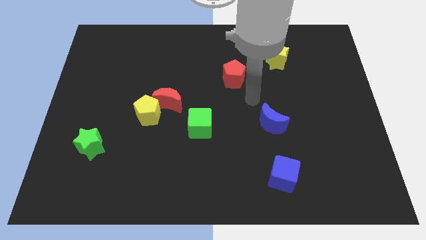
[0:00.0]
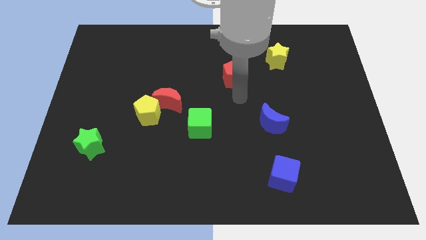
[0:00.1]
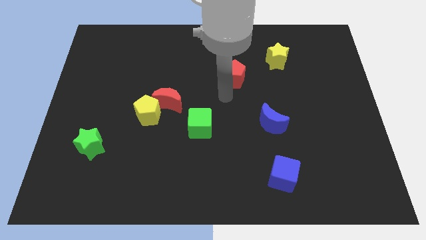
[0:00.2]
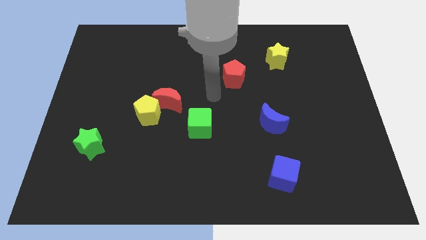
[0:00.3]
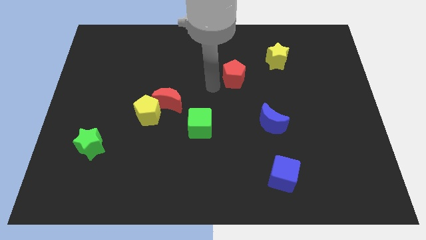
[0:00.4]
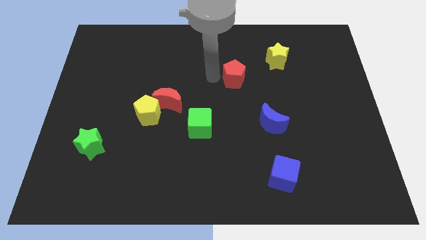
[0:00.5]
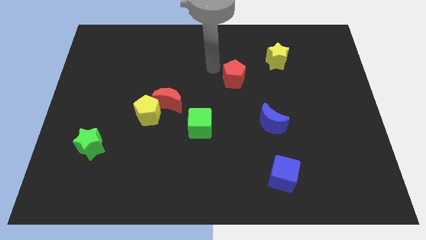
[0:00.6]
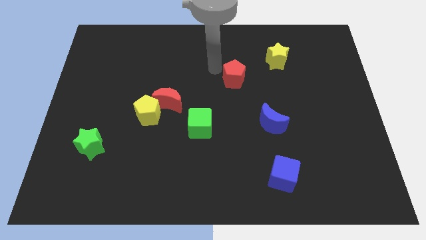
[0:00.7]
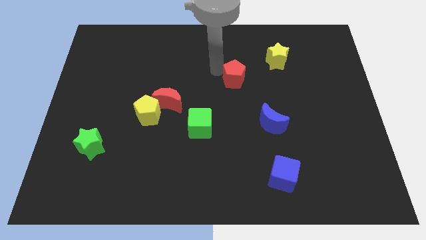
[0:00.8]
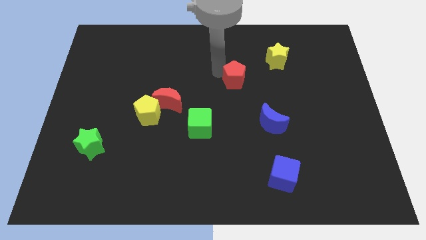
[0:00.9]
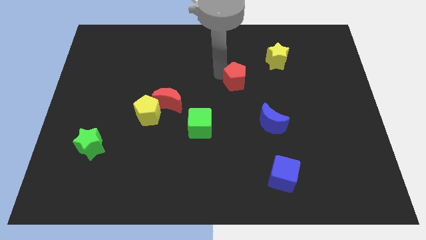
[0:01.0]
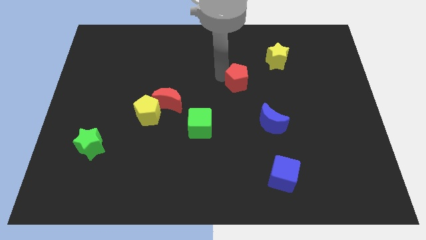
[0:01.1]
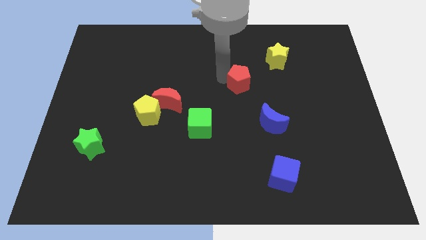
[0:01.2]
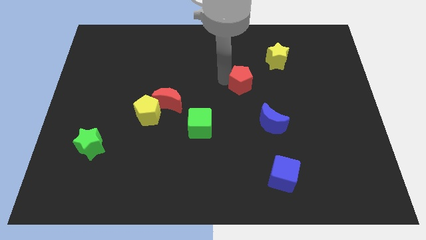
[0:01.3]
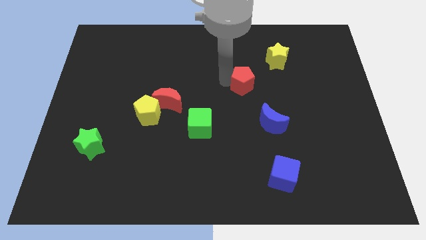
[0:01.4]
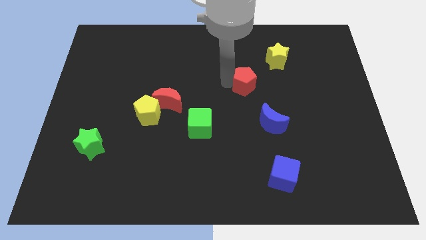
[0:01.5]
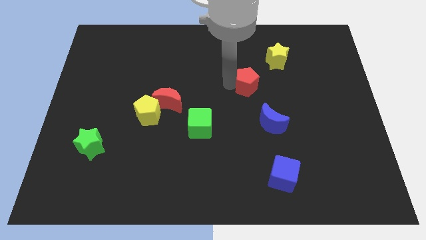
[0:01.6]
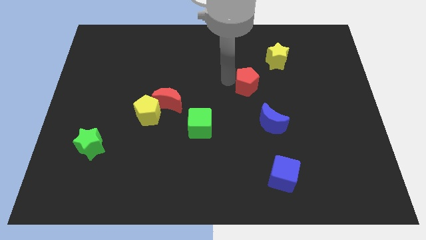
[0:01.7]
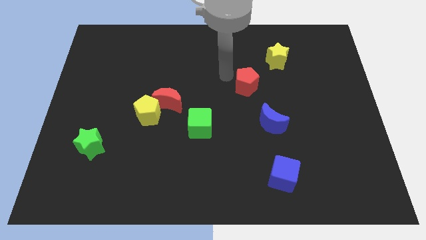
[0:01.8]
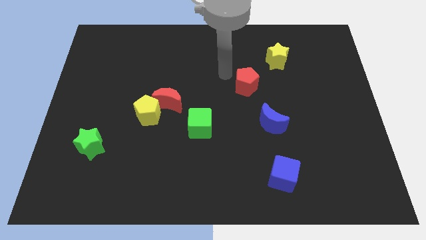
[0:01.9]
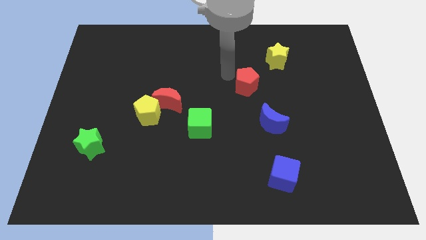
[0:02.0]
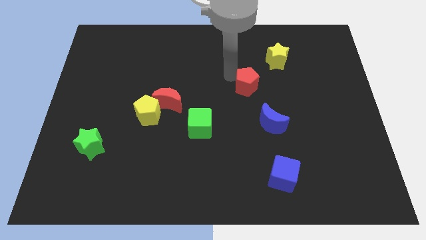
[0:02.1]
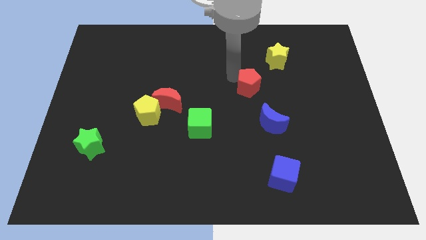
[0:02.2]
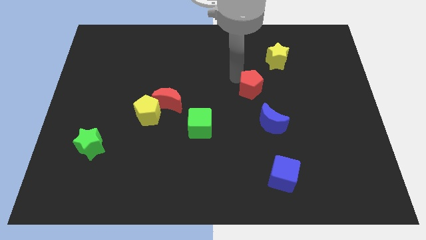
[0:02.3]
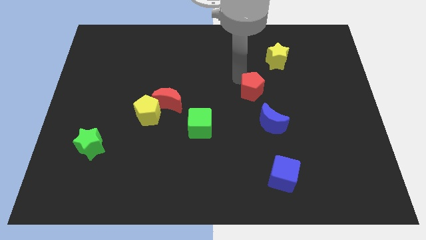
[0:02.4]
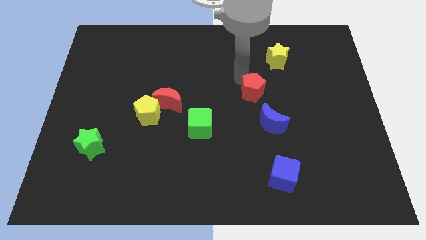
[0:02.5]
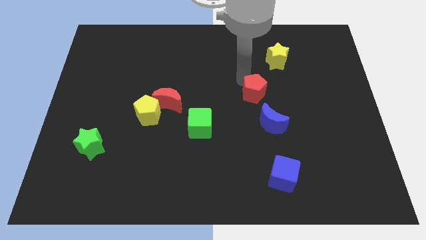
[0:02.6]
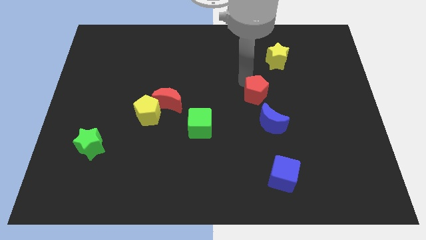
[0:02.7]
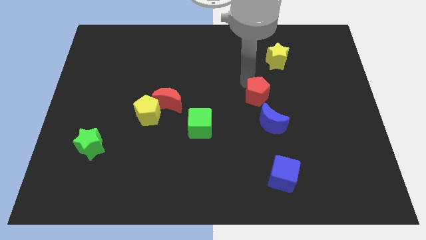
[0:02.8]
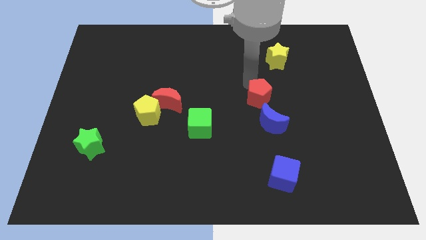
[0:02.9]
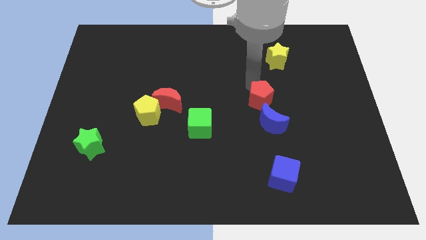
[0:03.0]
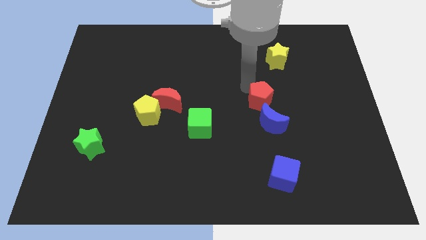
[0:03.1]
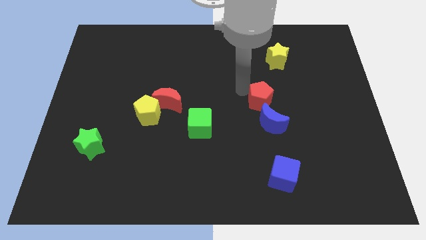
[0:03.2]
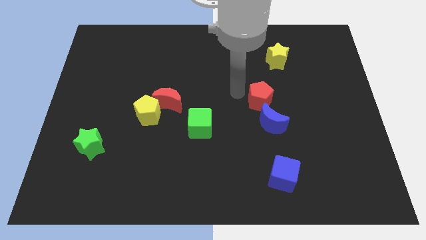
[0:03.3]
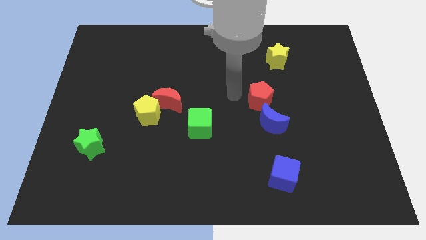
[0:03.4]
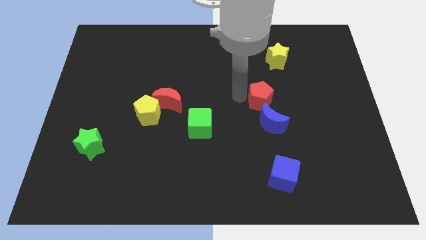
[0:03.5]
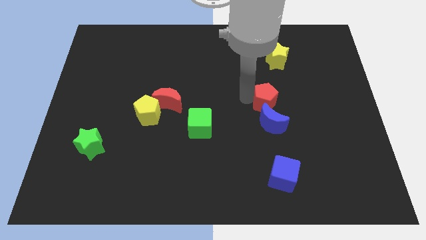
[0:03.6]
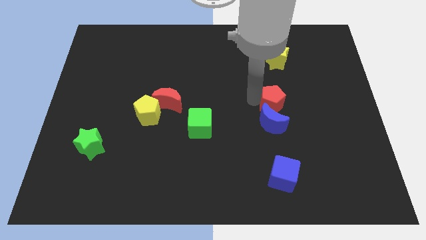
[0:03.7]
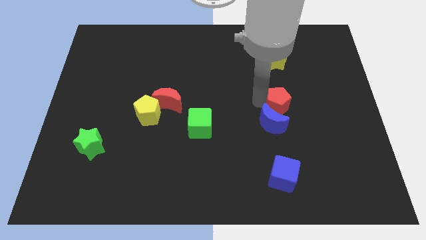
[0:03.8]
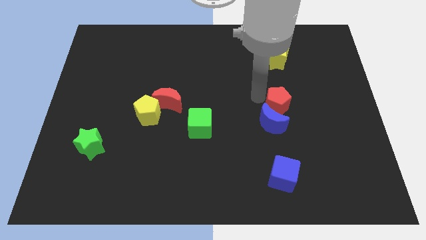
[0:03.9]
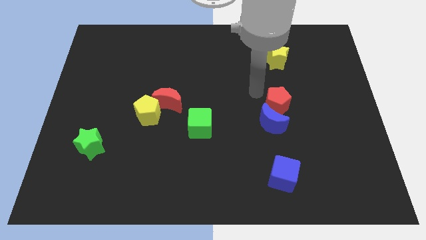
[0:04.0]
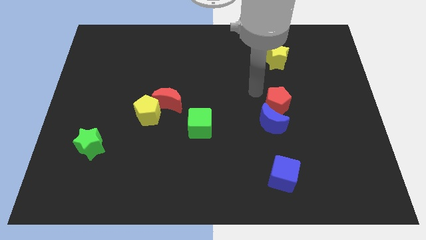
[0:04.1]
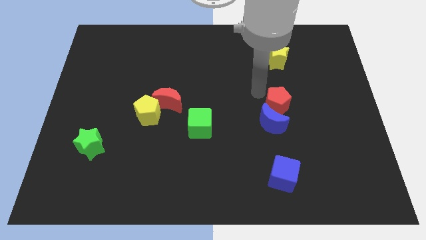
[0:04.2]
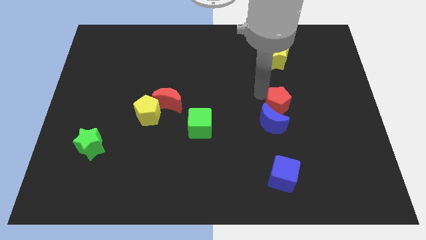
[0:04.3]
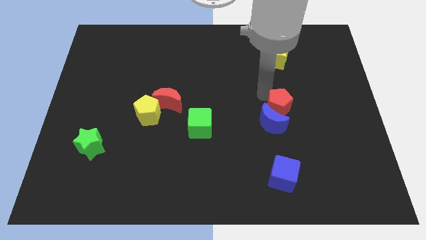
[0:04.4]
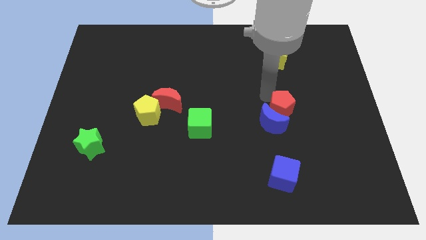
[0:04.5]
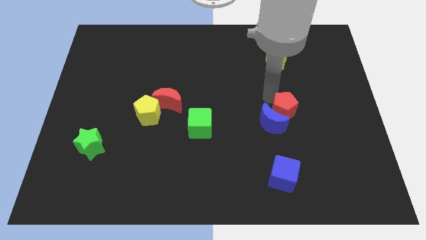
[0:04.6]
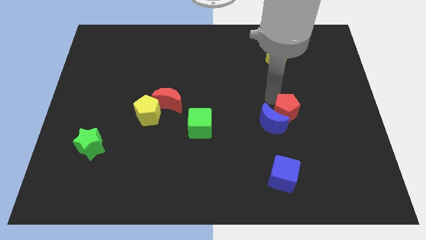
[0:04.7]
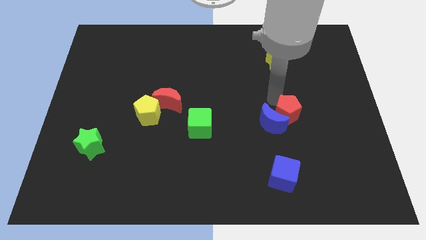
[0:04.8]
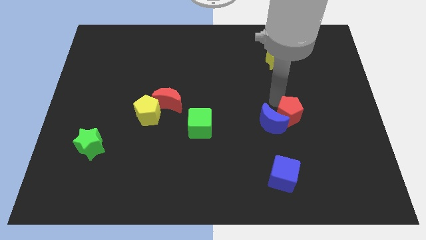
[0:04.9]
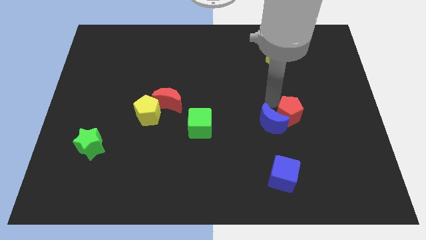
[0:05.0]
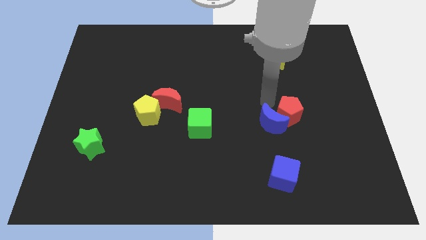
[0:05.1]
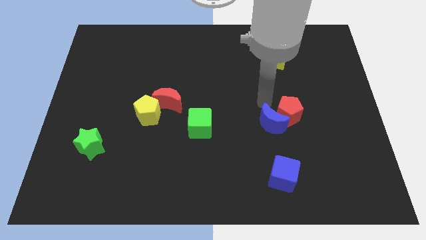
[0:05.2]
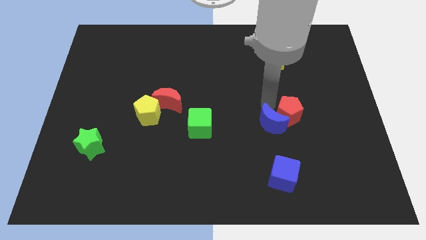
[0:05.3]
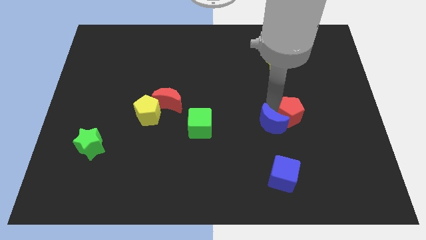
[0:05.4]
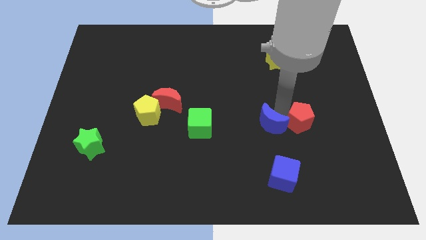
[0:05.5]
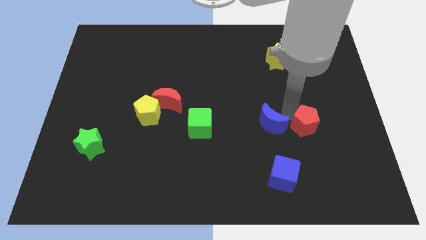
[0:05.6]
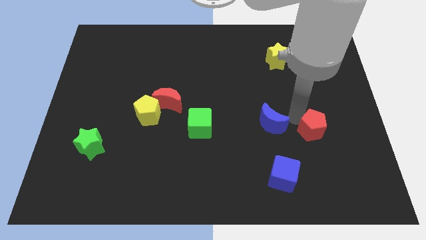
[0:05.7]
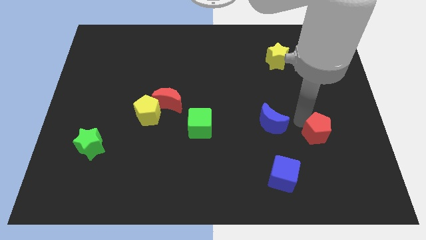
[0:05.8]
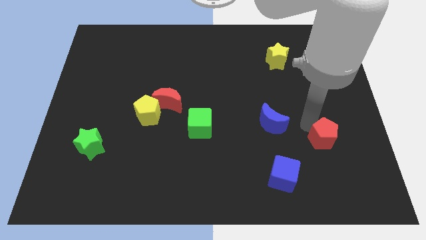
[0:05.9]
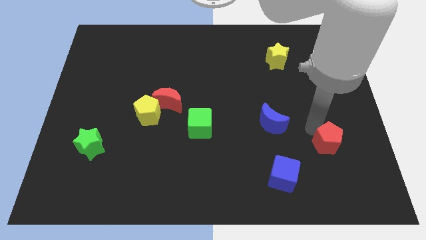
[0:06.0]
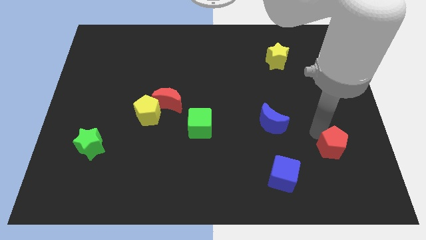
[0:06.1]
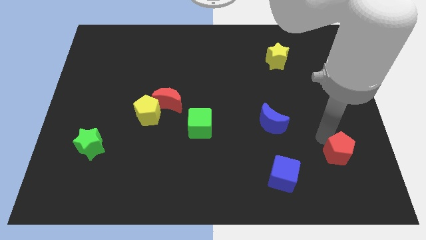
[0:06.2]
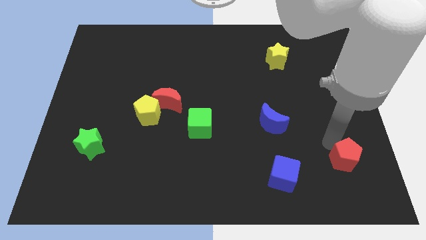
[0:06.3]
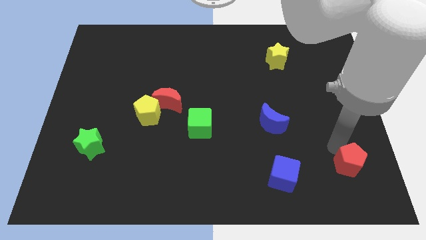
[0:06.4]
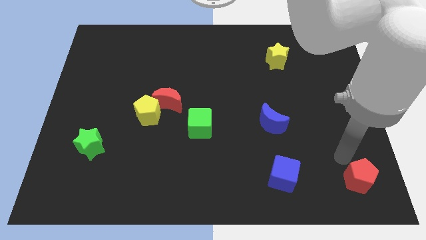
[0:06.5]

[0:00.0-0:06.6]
push the red pentagon to the lower right corner

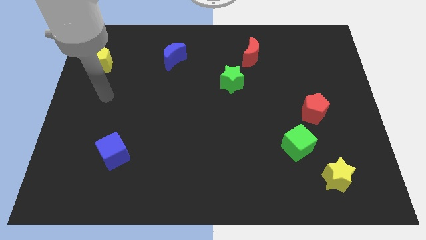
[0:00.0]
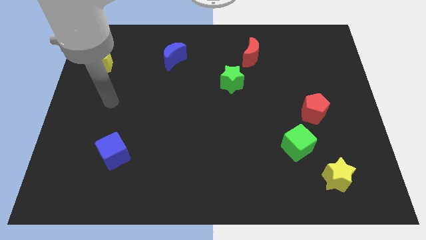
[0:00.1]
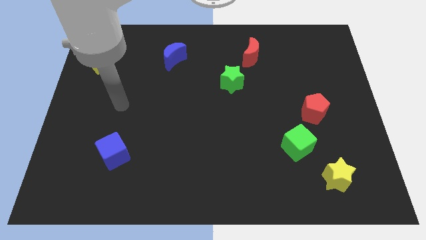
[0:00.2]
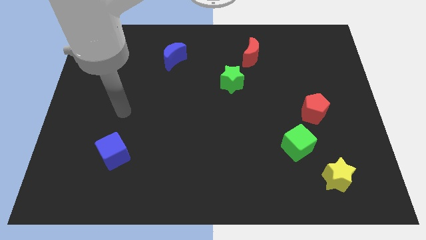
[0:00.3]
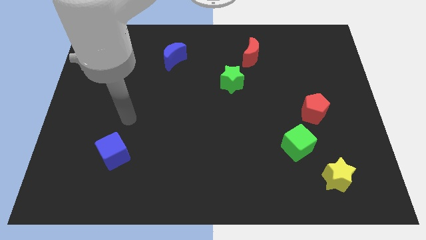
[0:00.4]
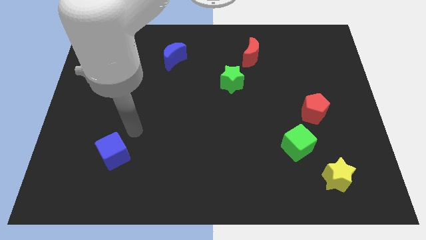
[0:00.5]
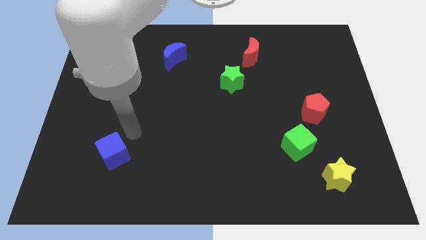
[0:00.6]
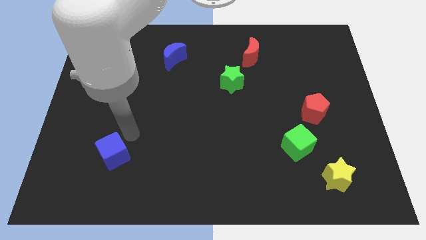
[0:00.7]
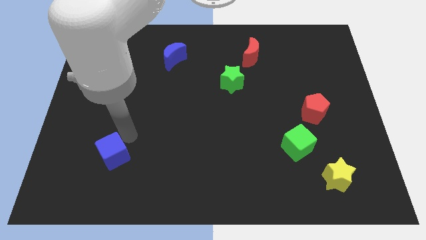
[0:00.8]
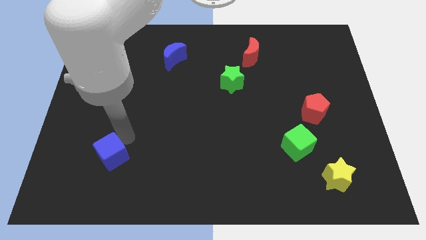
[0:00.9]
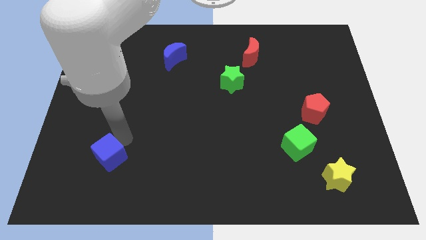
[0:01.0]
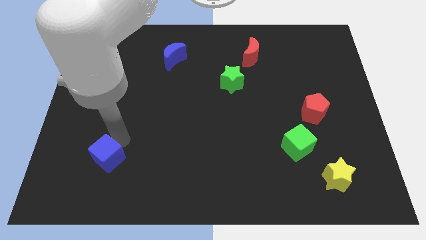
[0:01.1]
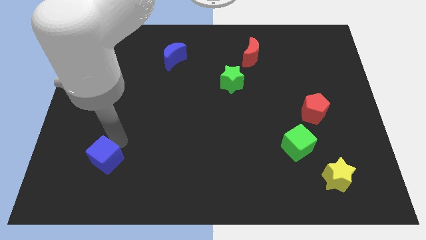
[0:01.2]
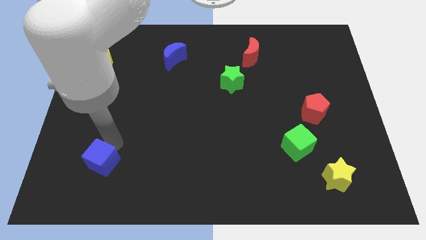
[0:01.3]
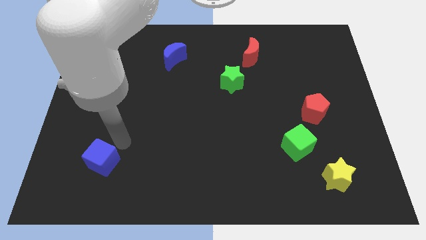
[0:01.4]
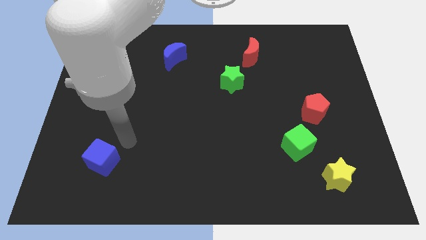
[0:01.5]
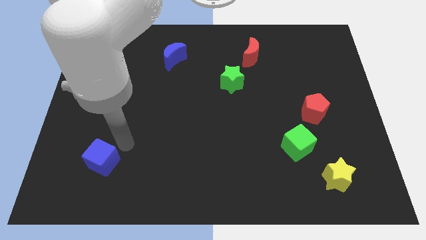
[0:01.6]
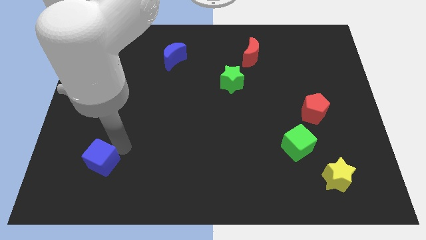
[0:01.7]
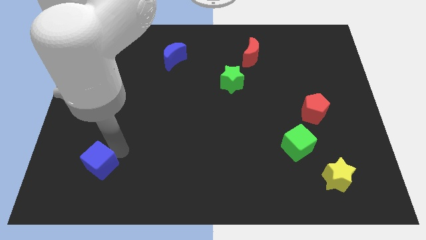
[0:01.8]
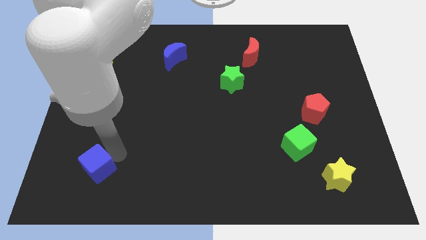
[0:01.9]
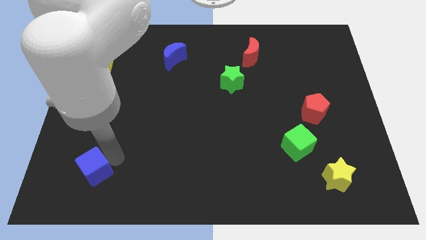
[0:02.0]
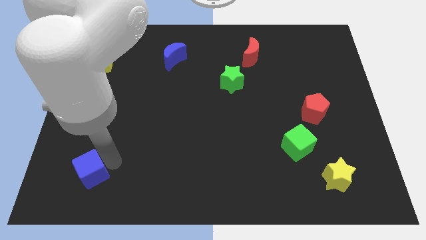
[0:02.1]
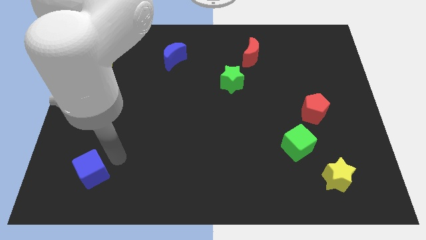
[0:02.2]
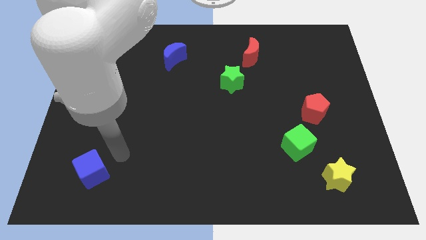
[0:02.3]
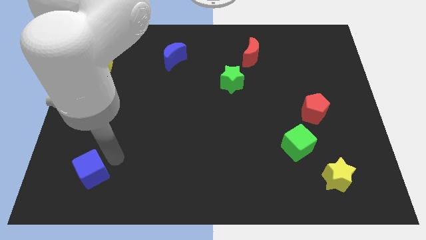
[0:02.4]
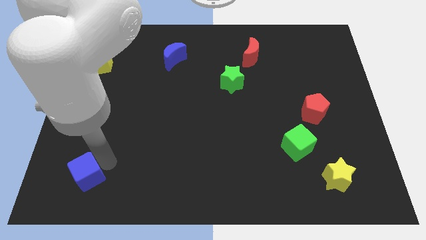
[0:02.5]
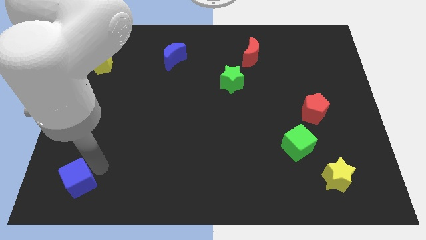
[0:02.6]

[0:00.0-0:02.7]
move the blue cube to the lower left corner
